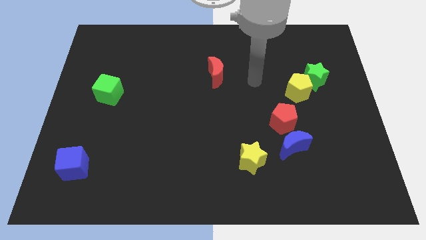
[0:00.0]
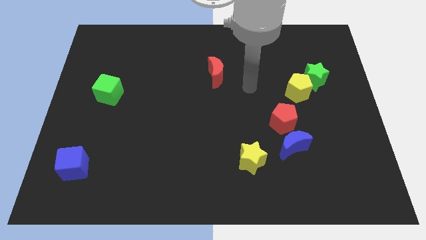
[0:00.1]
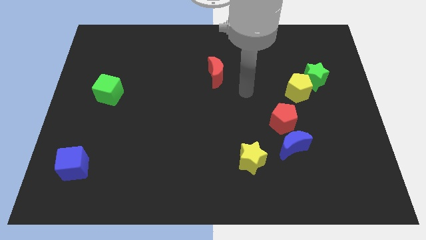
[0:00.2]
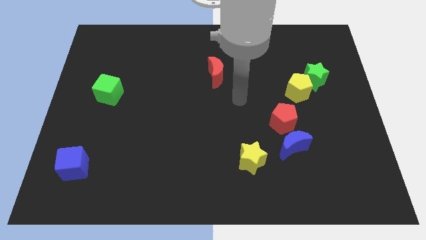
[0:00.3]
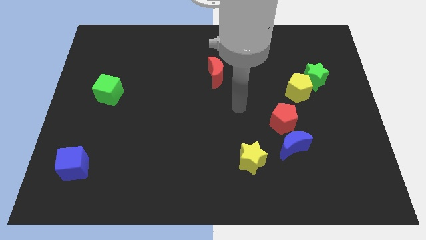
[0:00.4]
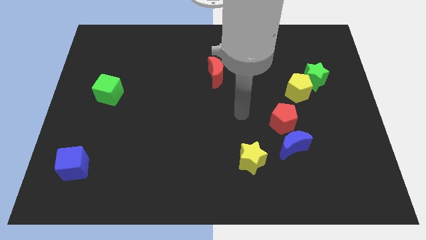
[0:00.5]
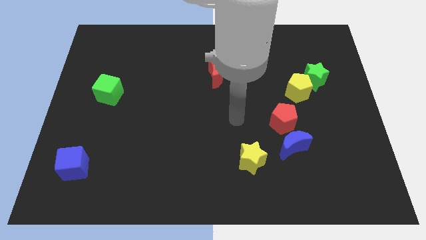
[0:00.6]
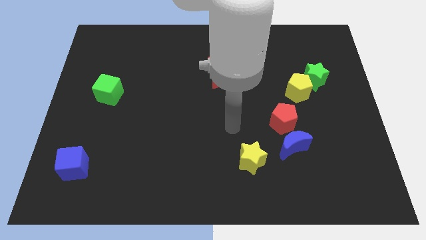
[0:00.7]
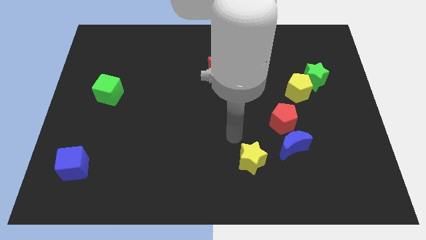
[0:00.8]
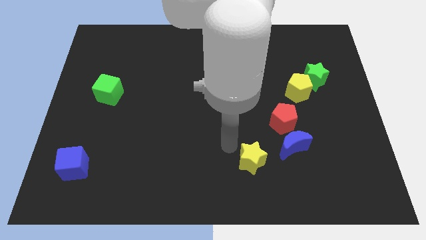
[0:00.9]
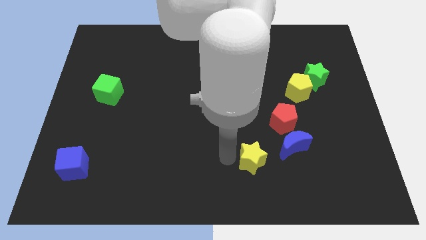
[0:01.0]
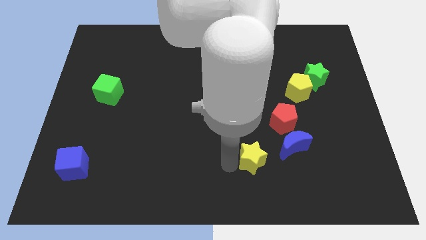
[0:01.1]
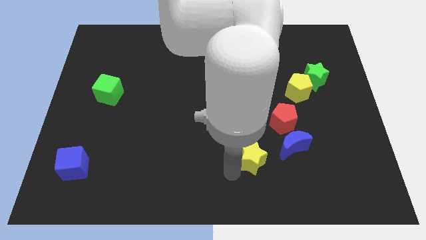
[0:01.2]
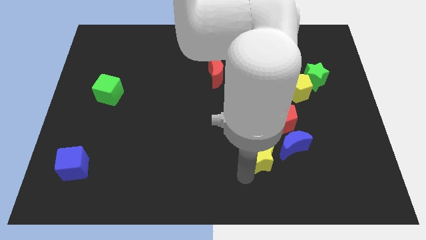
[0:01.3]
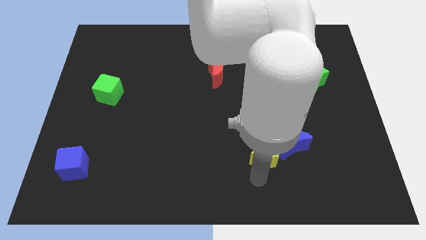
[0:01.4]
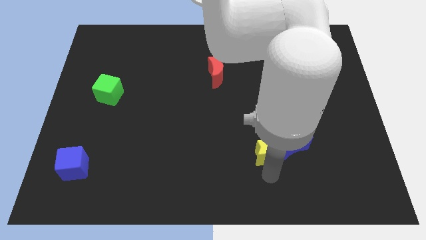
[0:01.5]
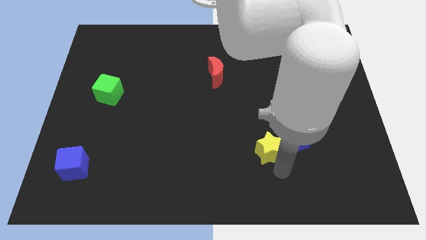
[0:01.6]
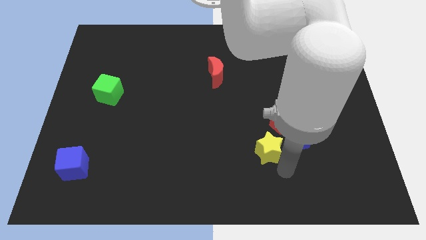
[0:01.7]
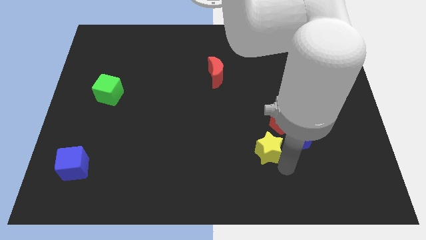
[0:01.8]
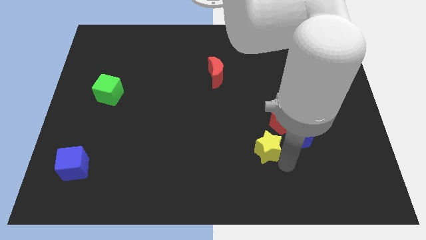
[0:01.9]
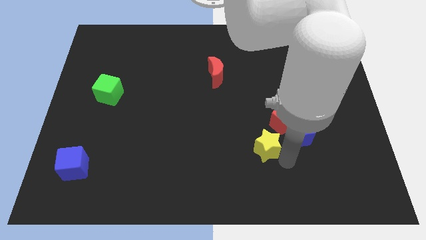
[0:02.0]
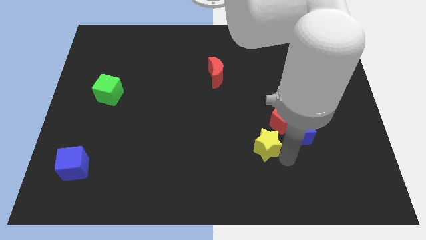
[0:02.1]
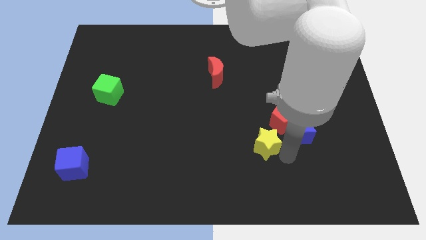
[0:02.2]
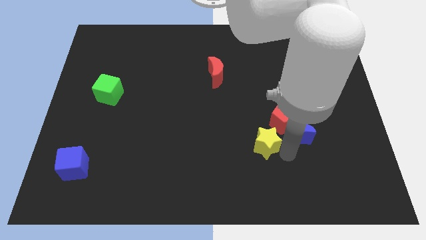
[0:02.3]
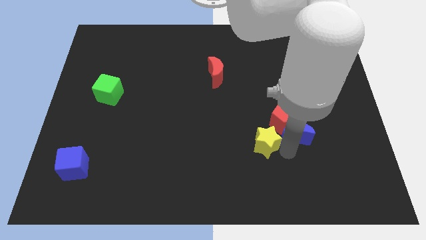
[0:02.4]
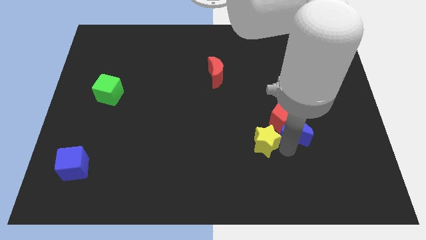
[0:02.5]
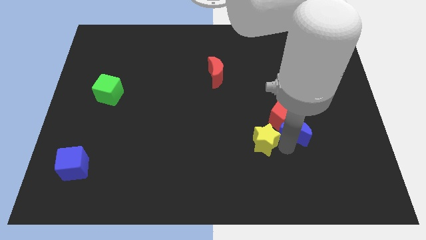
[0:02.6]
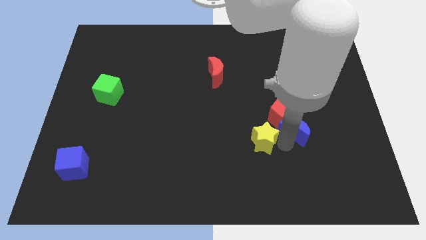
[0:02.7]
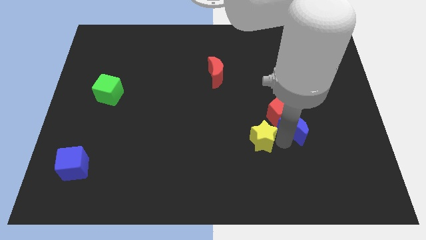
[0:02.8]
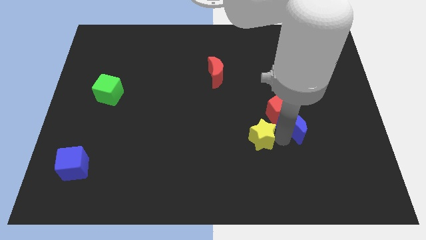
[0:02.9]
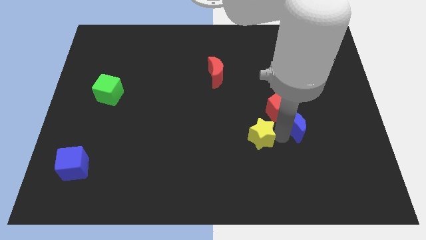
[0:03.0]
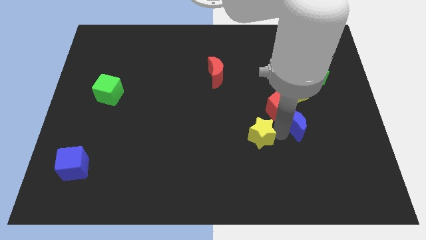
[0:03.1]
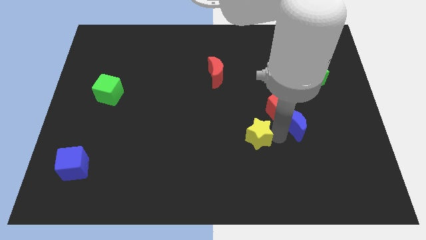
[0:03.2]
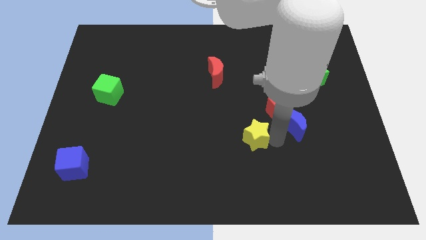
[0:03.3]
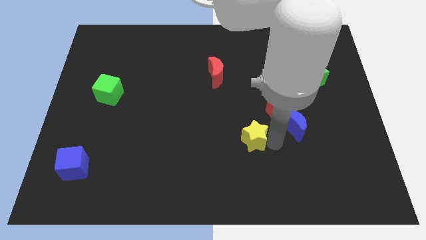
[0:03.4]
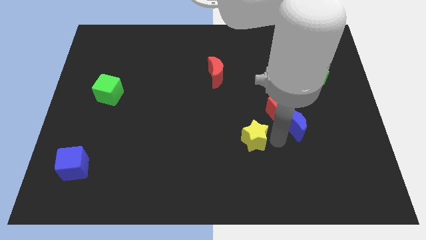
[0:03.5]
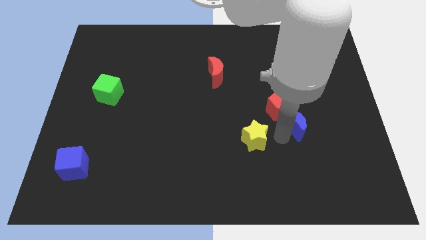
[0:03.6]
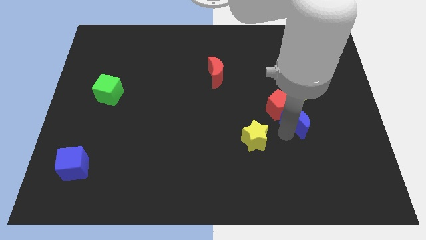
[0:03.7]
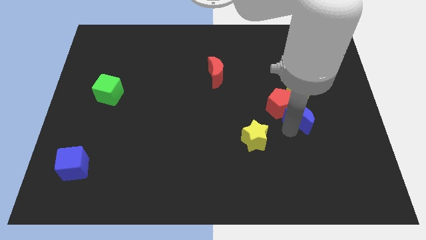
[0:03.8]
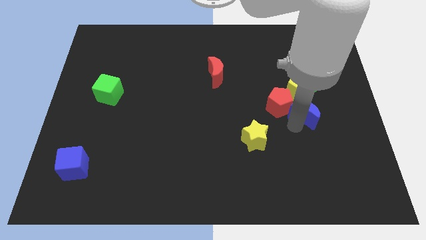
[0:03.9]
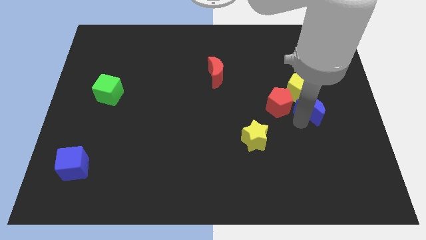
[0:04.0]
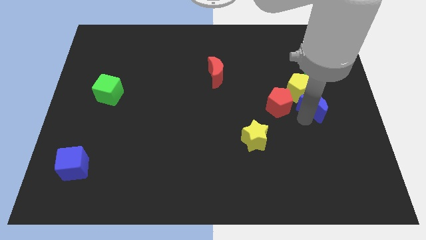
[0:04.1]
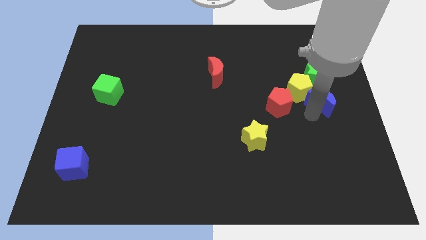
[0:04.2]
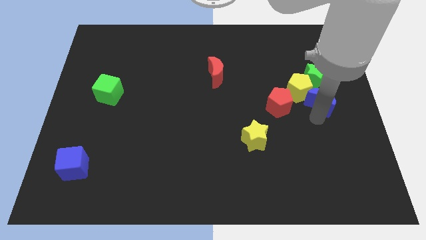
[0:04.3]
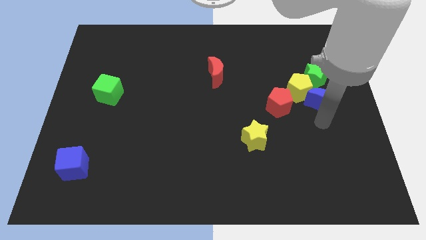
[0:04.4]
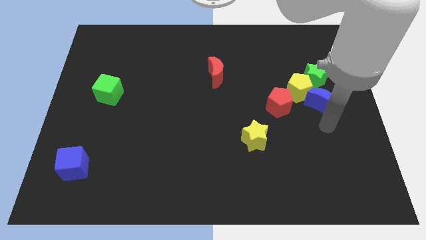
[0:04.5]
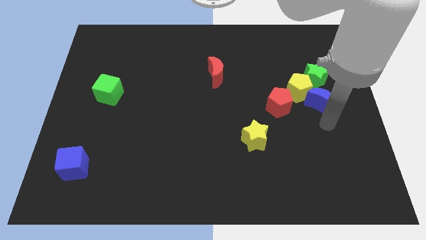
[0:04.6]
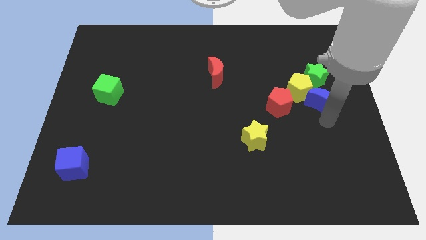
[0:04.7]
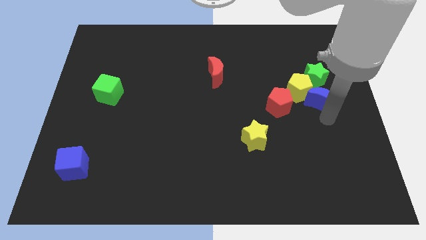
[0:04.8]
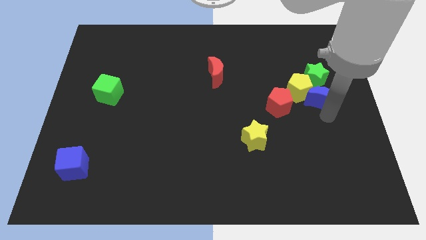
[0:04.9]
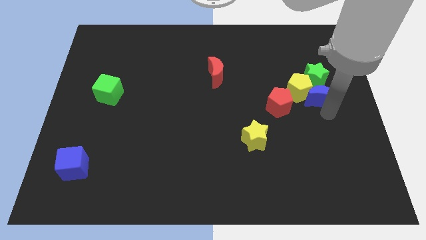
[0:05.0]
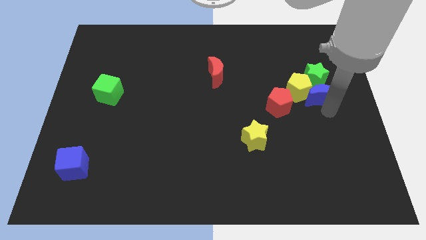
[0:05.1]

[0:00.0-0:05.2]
put the blue moon towards the green star

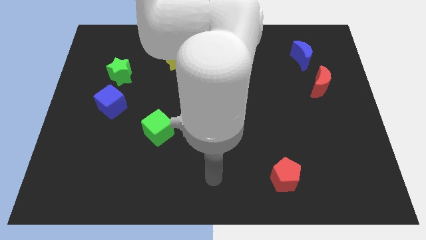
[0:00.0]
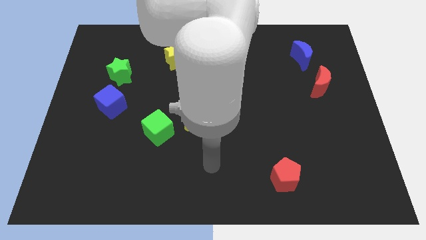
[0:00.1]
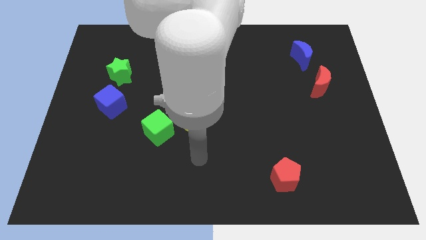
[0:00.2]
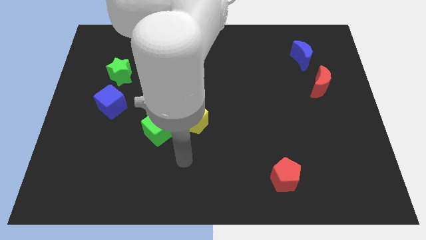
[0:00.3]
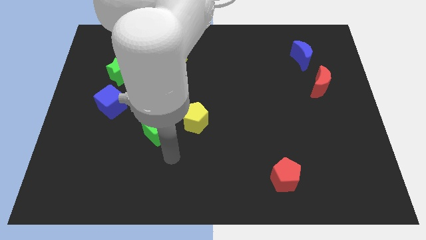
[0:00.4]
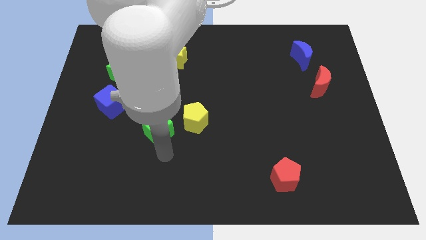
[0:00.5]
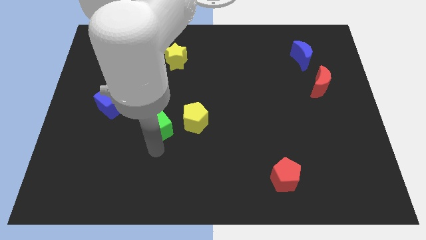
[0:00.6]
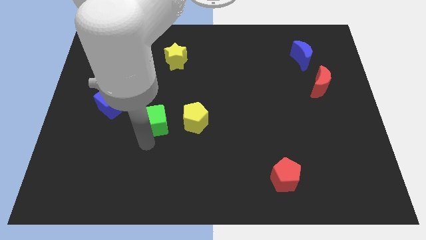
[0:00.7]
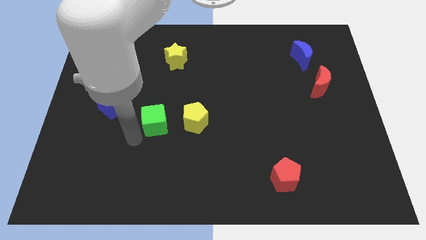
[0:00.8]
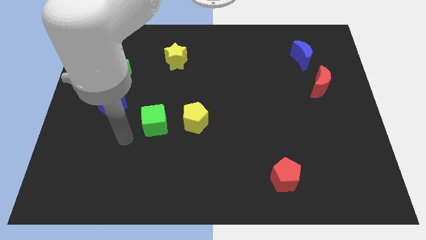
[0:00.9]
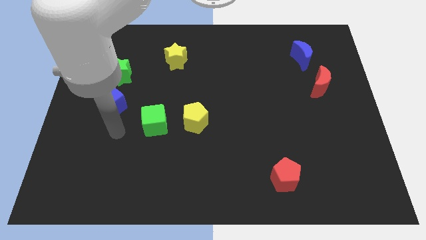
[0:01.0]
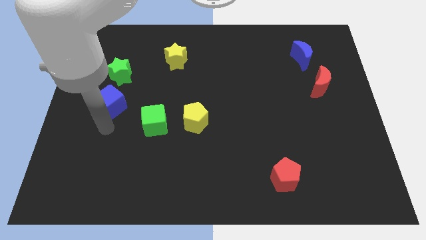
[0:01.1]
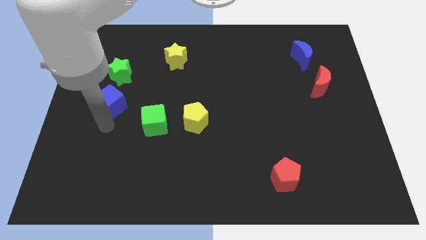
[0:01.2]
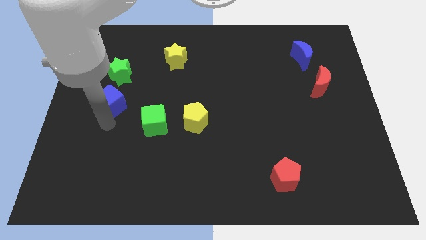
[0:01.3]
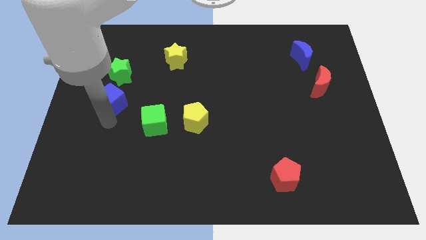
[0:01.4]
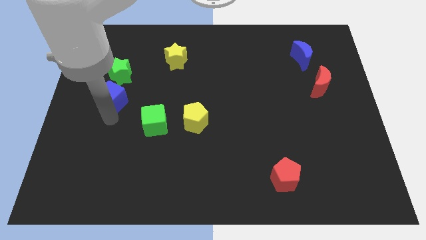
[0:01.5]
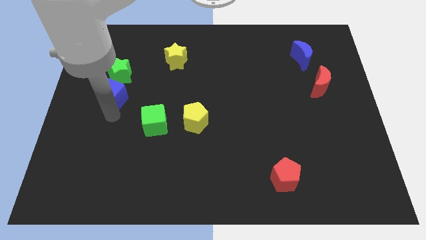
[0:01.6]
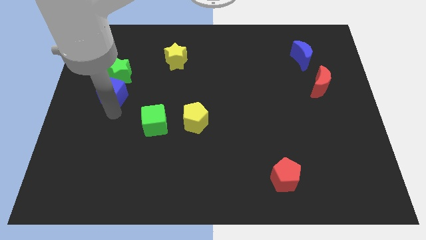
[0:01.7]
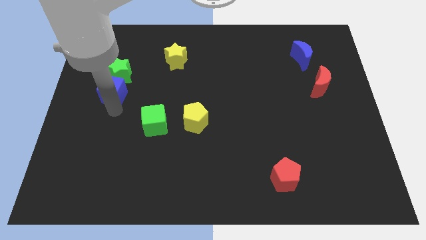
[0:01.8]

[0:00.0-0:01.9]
push the blue cube close to the green star
